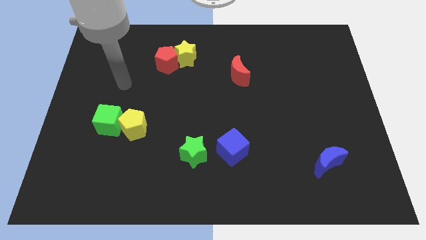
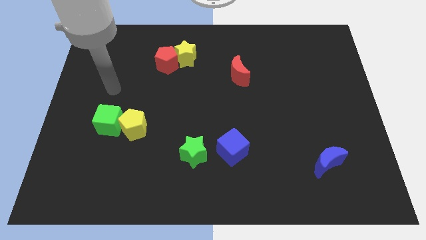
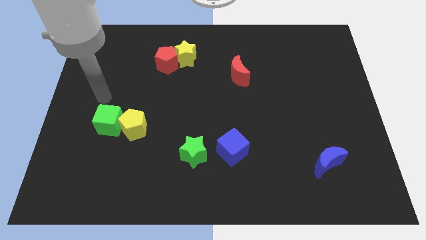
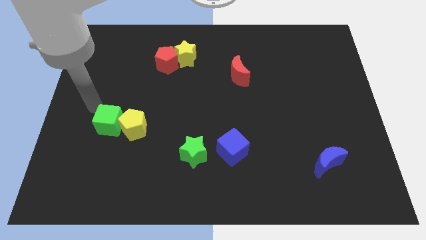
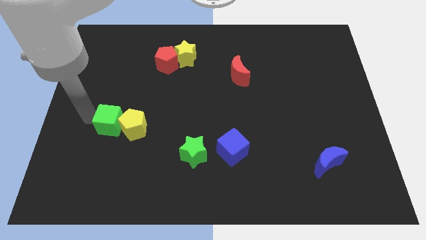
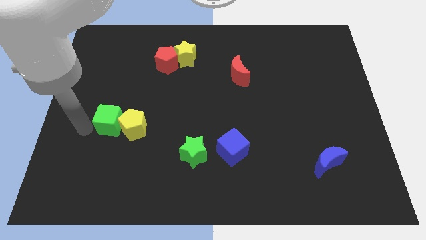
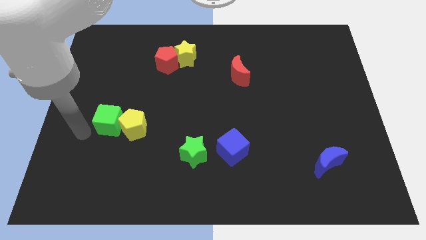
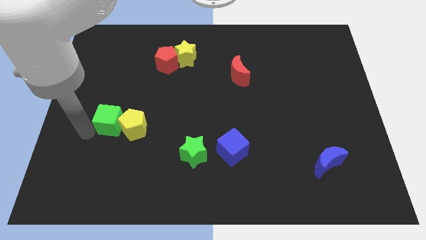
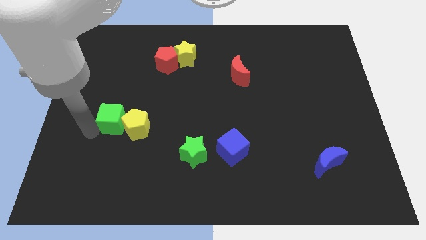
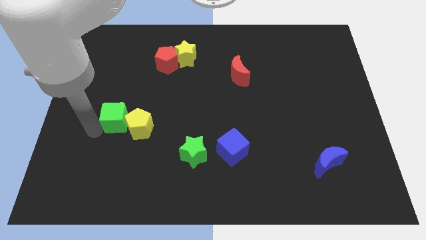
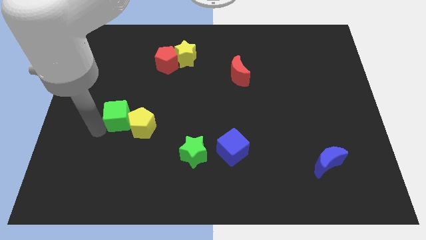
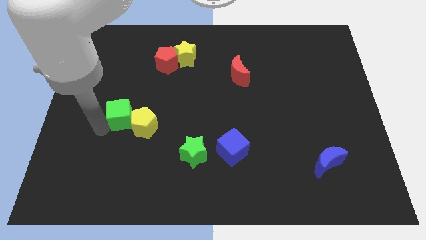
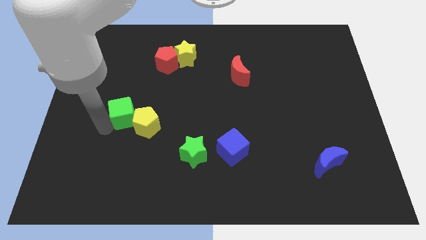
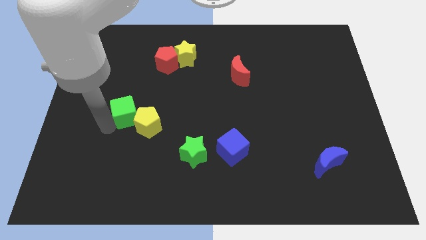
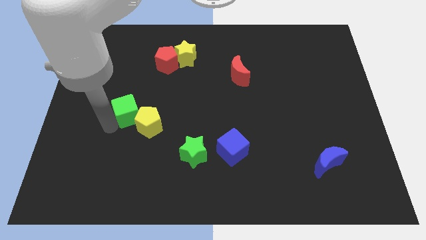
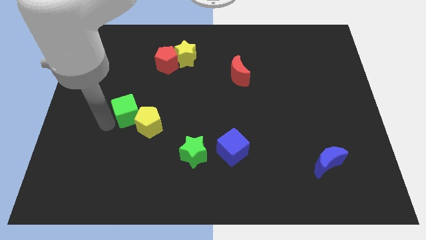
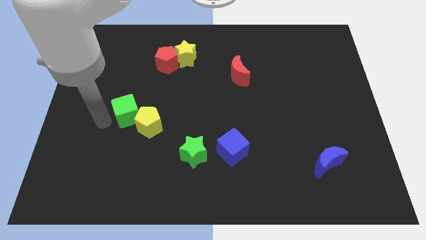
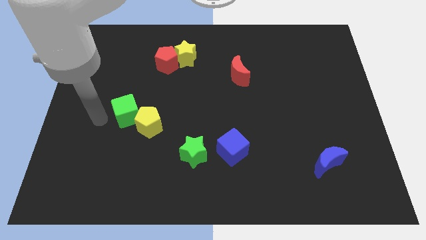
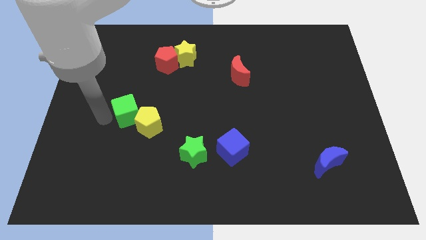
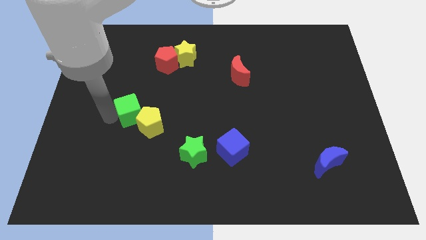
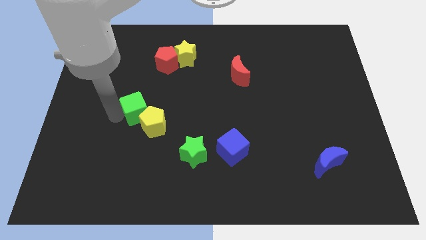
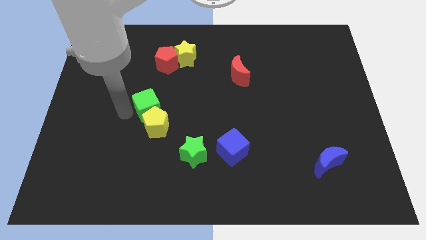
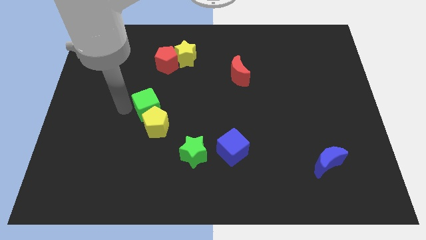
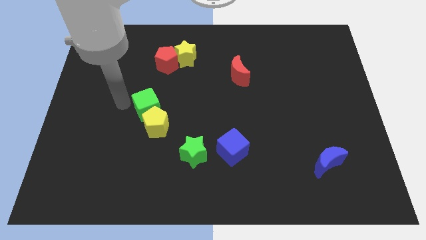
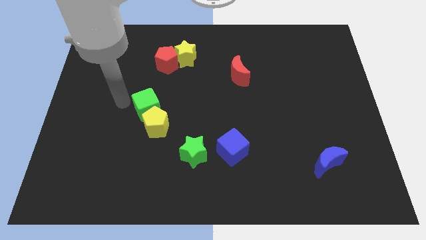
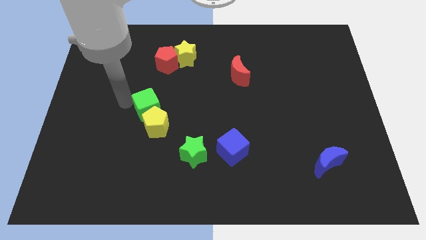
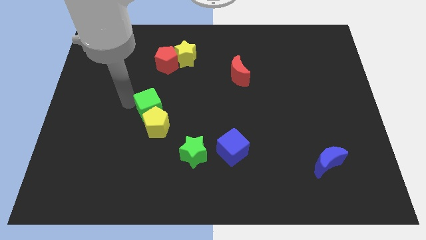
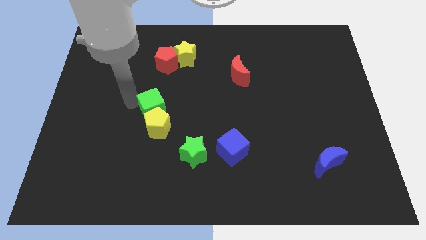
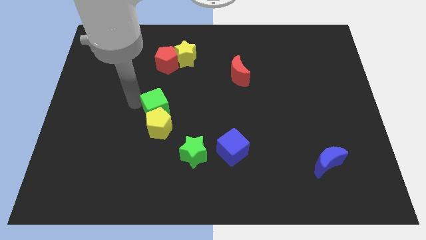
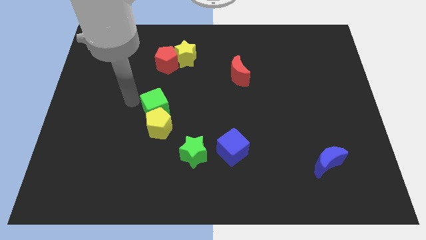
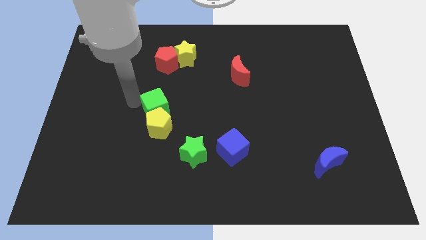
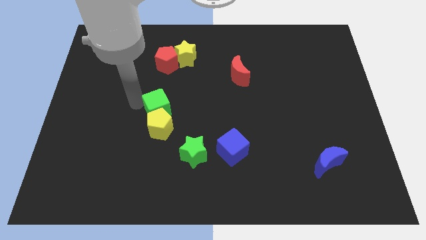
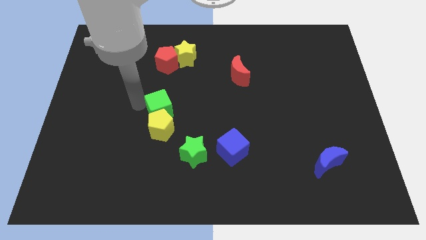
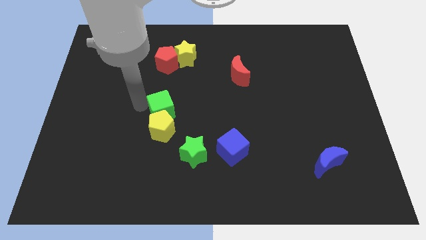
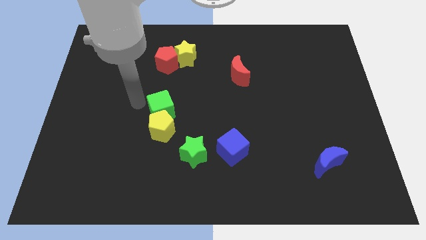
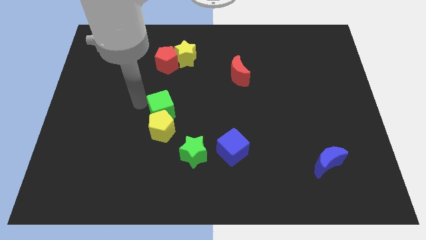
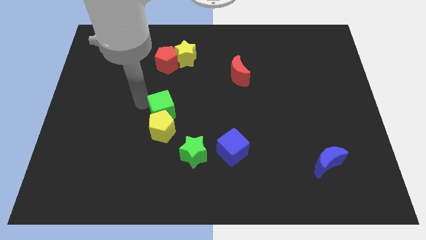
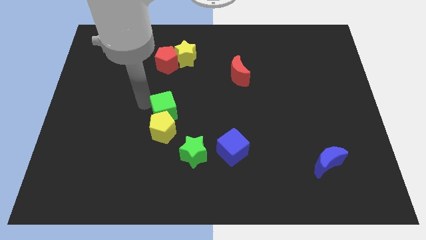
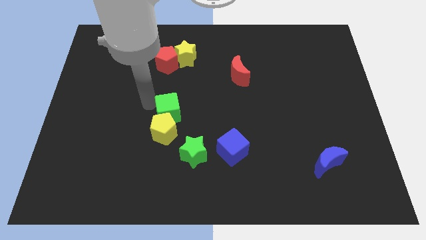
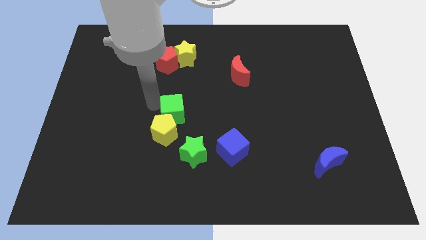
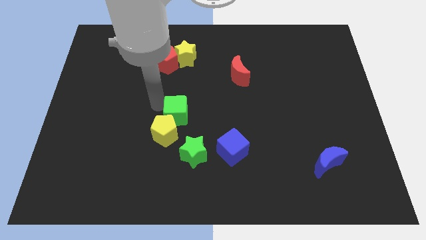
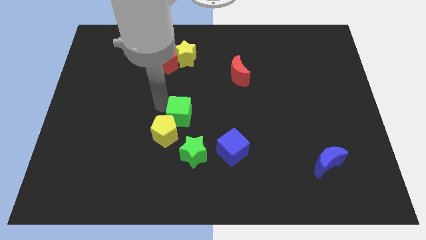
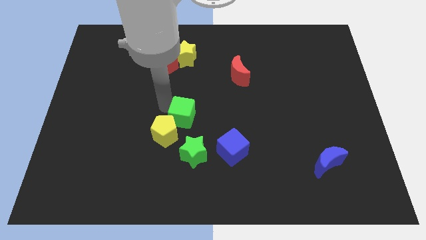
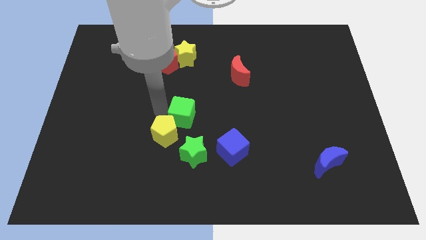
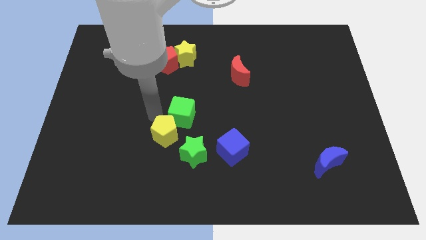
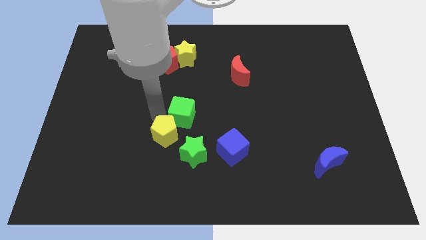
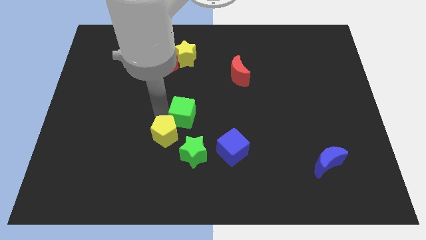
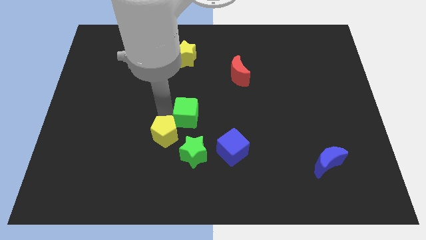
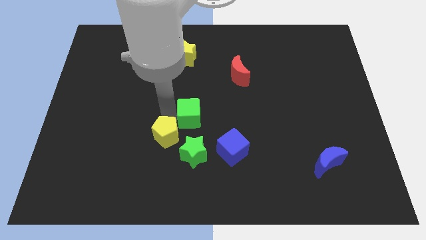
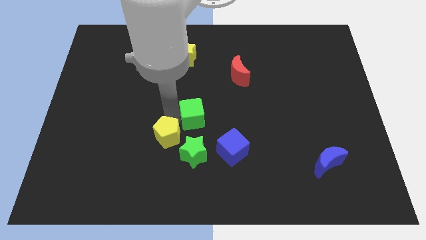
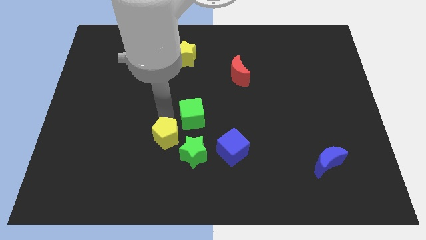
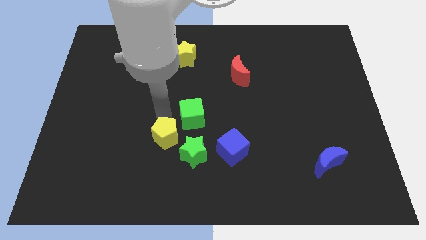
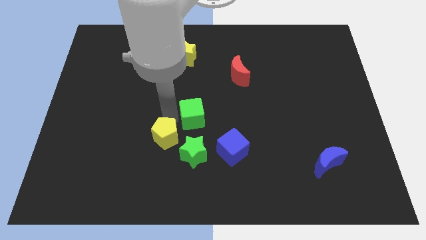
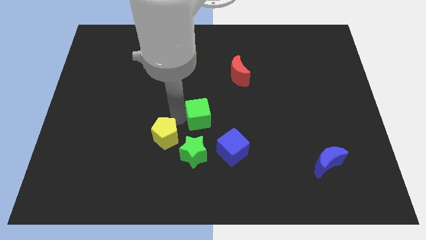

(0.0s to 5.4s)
push the green cube to the right

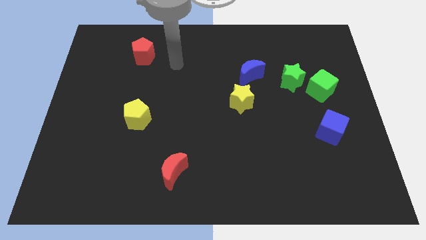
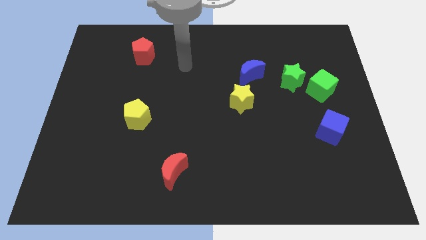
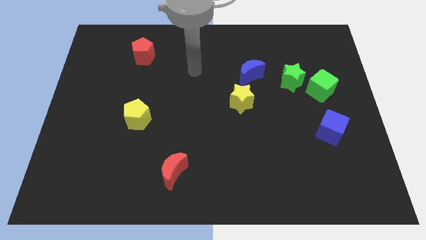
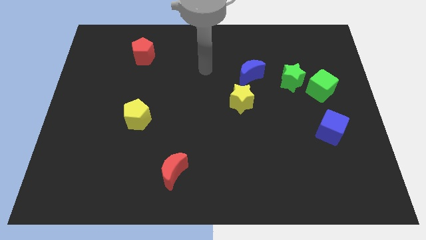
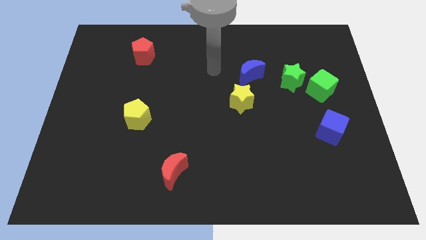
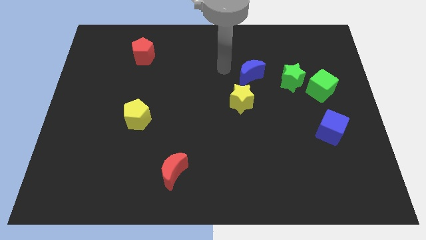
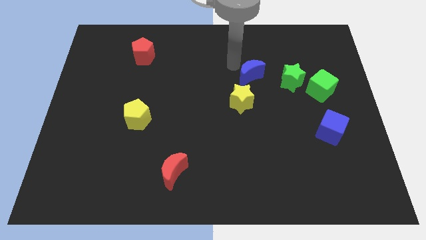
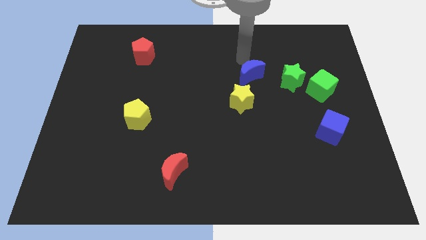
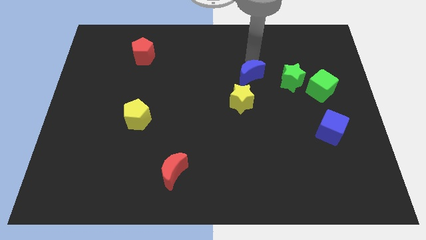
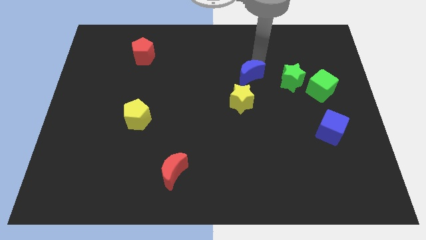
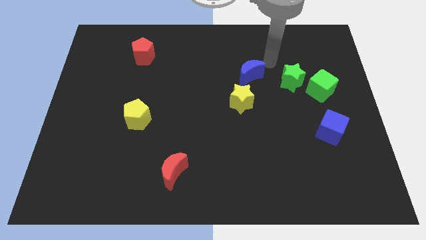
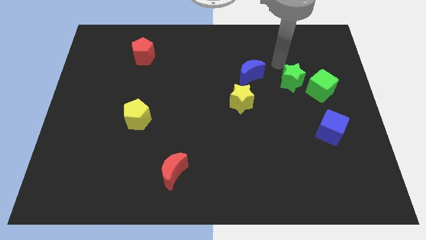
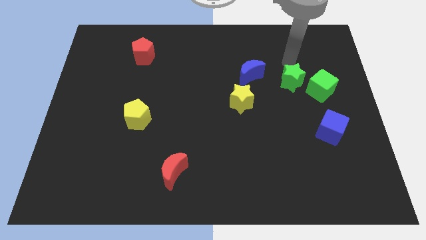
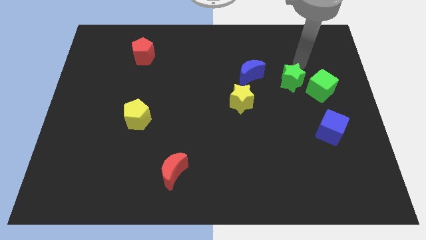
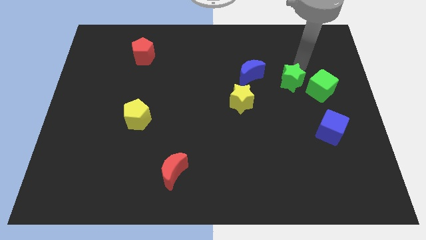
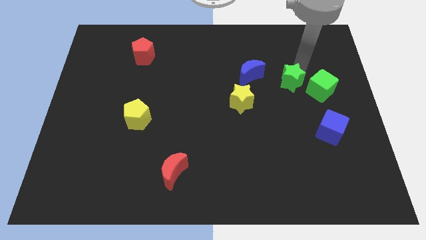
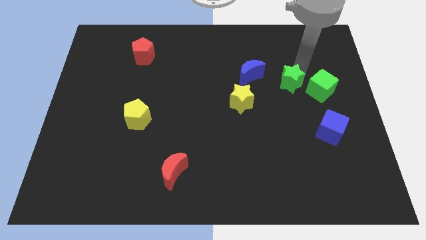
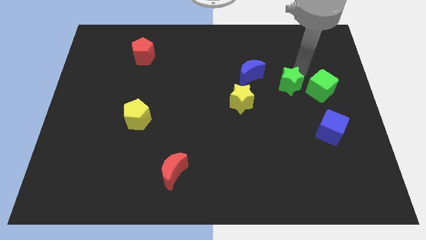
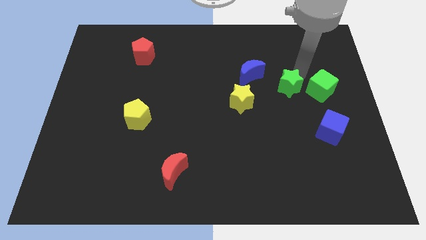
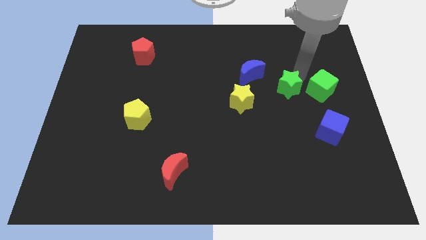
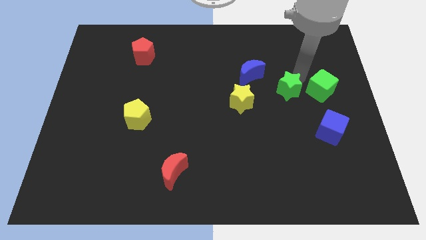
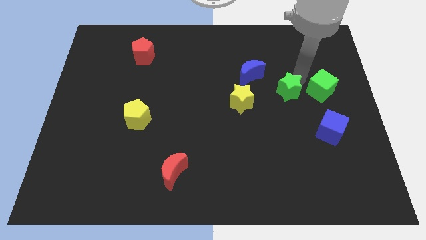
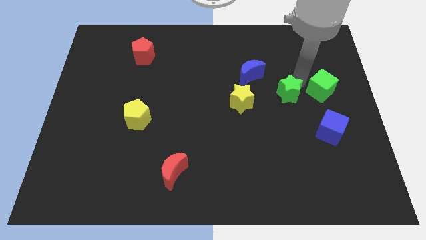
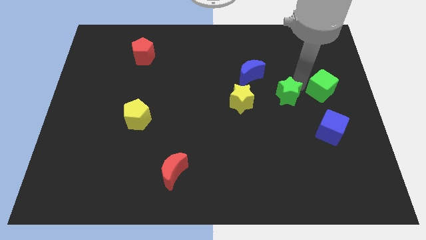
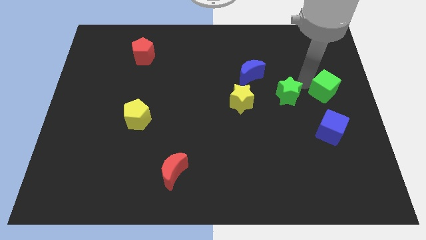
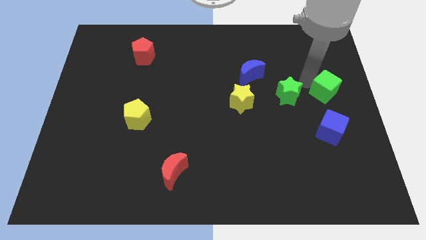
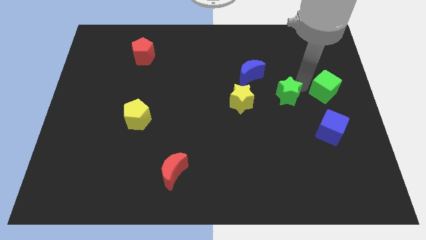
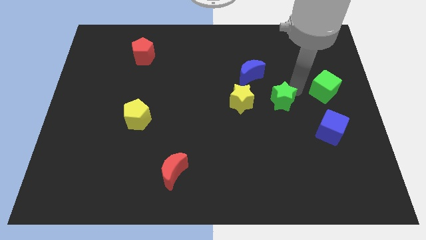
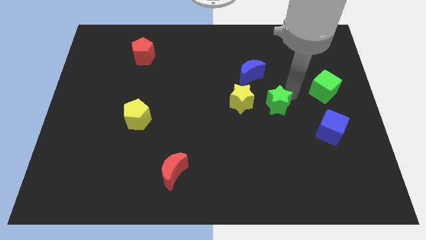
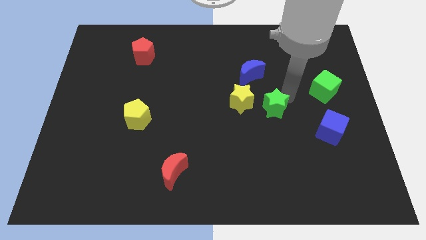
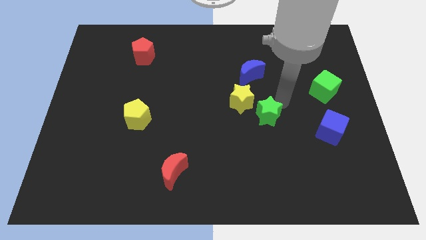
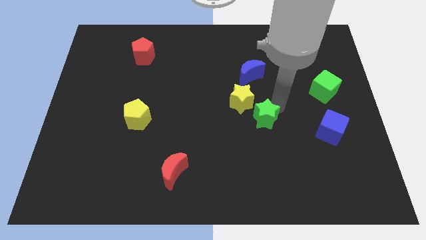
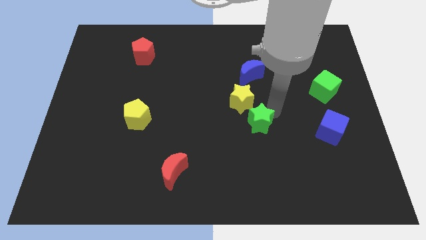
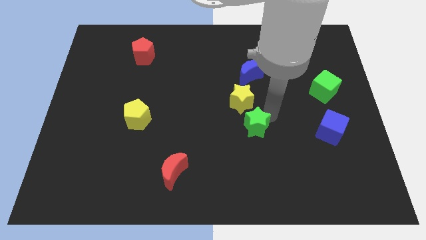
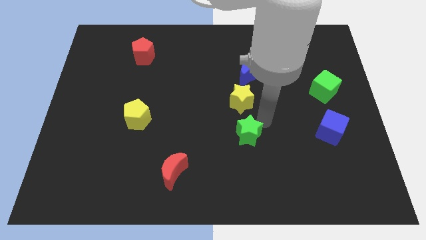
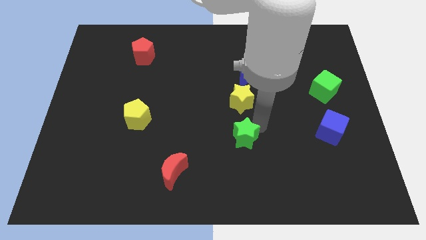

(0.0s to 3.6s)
move the green star downwards and left
